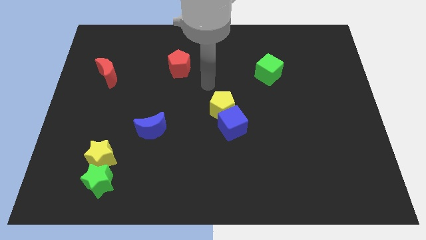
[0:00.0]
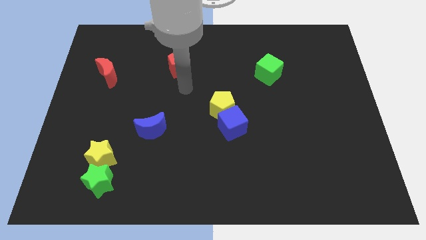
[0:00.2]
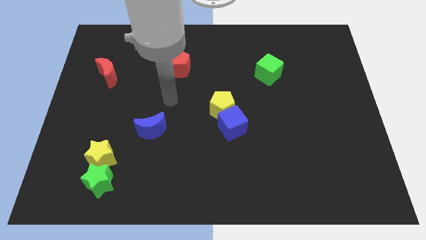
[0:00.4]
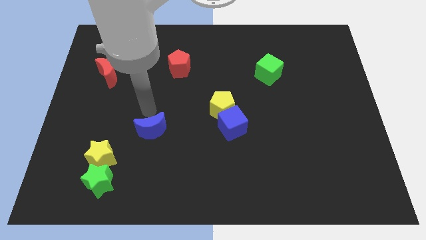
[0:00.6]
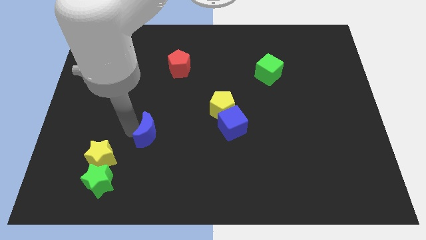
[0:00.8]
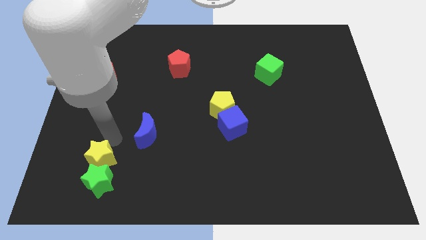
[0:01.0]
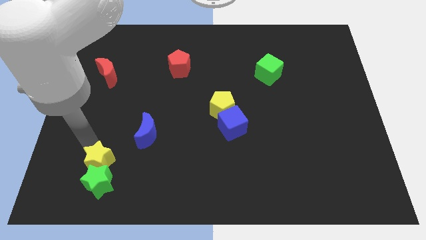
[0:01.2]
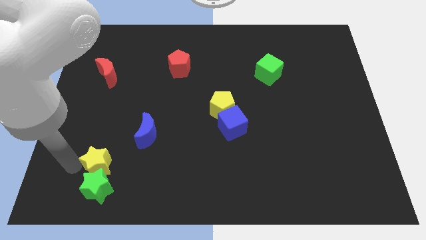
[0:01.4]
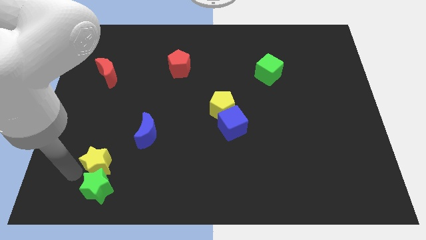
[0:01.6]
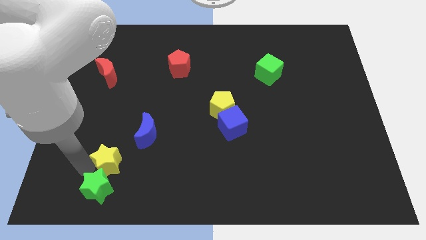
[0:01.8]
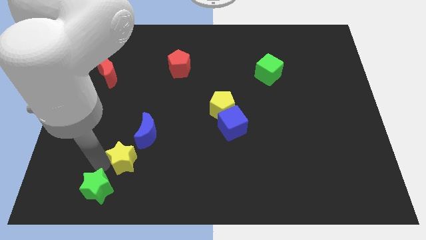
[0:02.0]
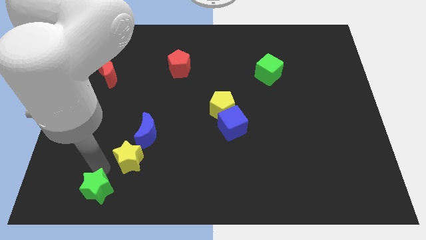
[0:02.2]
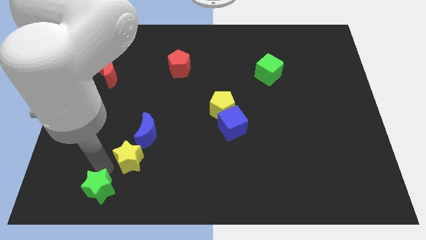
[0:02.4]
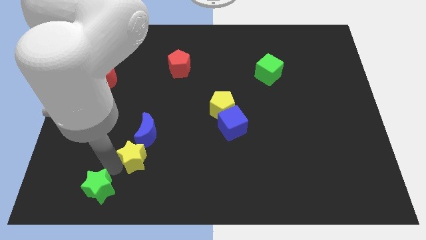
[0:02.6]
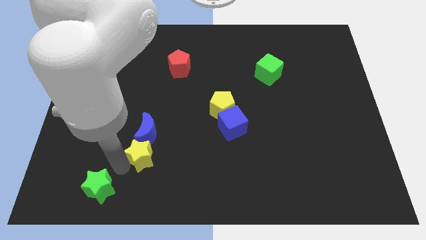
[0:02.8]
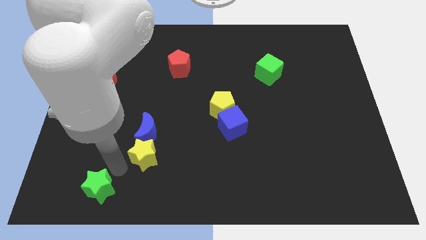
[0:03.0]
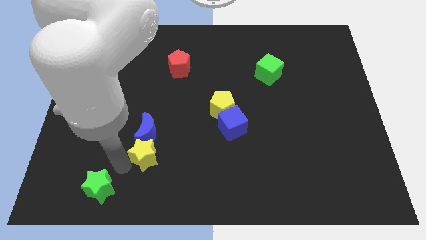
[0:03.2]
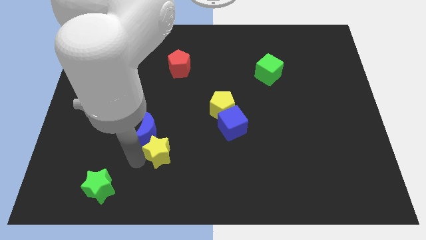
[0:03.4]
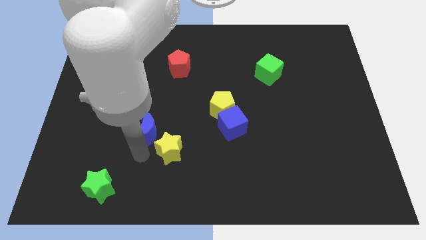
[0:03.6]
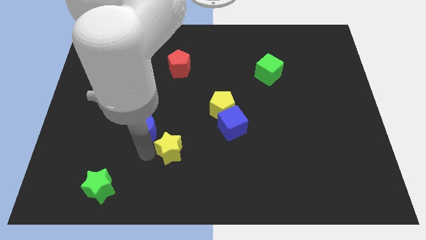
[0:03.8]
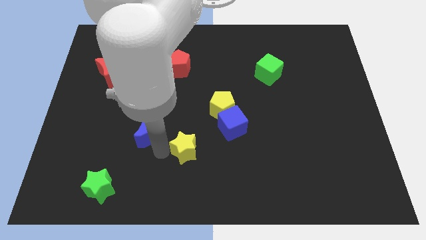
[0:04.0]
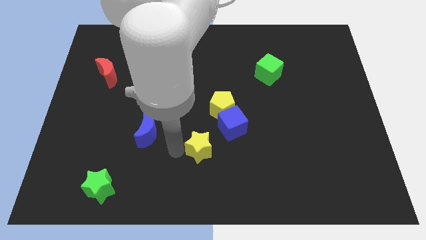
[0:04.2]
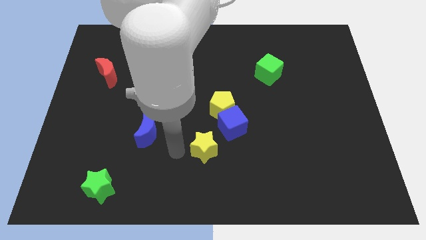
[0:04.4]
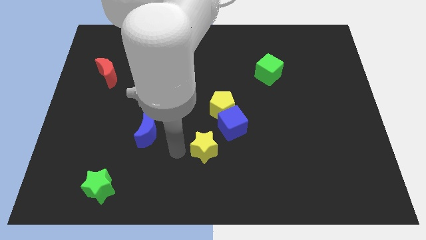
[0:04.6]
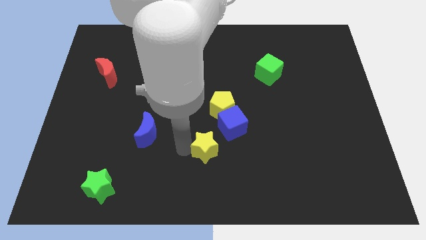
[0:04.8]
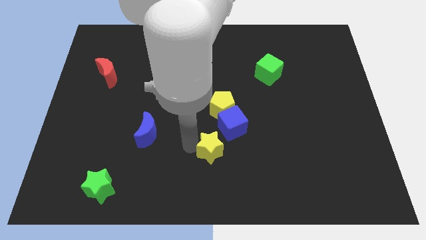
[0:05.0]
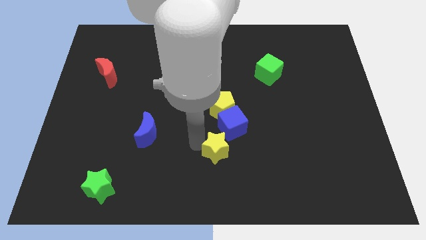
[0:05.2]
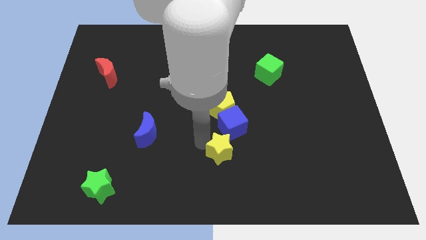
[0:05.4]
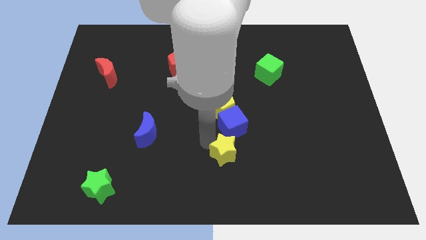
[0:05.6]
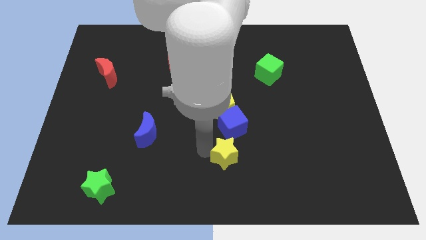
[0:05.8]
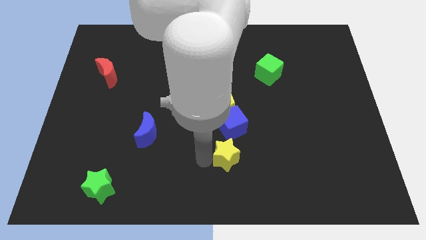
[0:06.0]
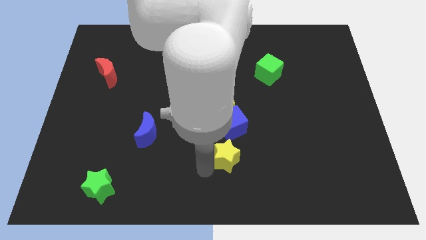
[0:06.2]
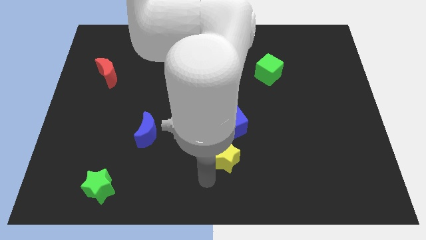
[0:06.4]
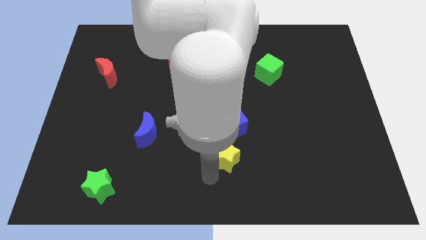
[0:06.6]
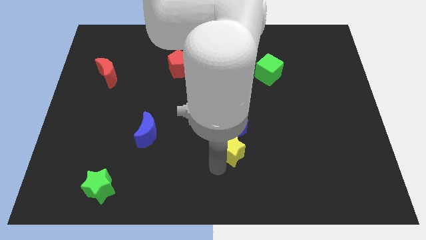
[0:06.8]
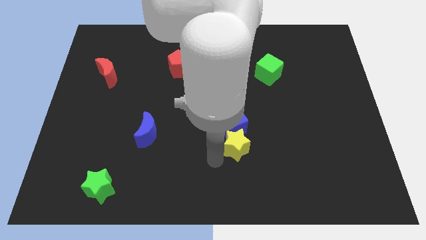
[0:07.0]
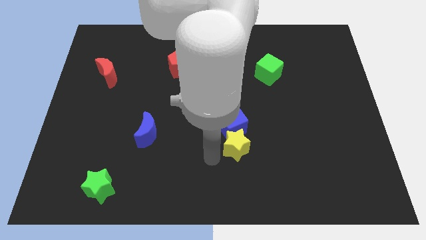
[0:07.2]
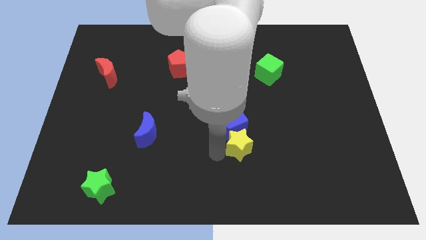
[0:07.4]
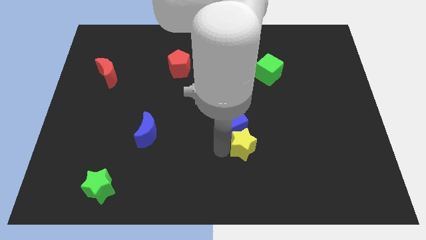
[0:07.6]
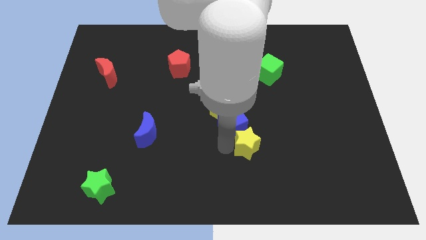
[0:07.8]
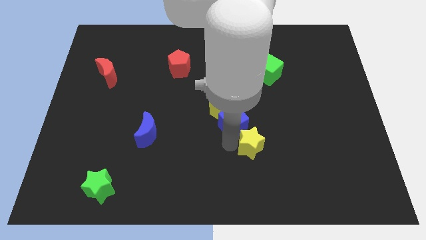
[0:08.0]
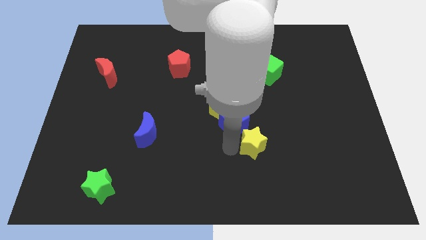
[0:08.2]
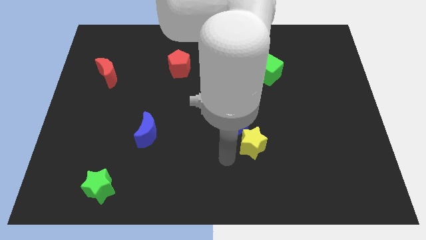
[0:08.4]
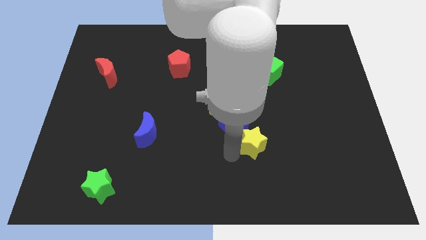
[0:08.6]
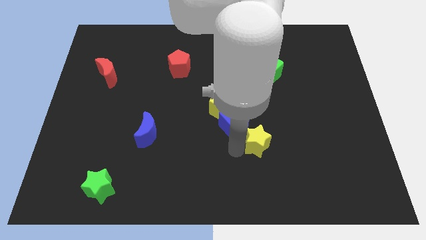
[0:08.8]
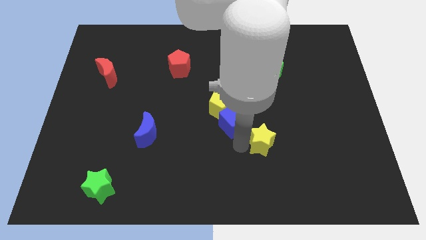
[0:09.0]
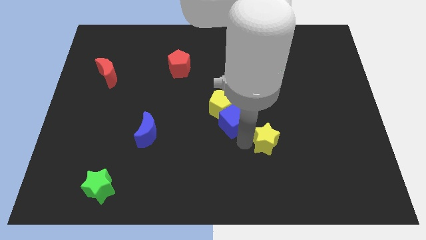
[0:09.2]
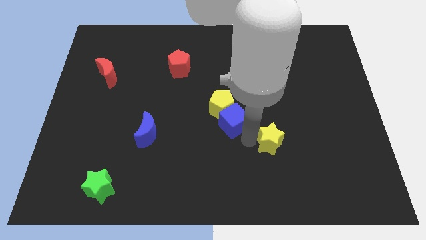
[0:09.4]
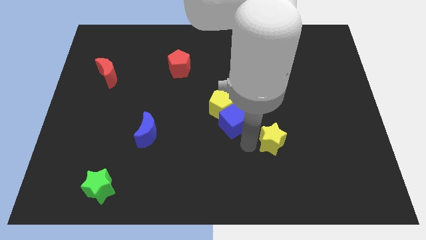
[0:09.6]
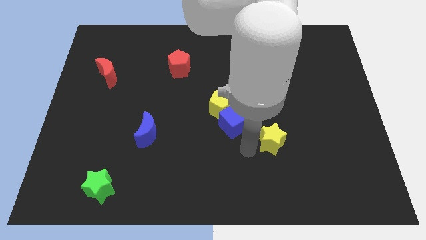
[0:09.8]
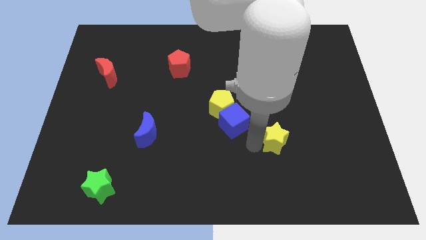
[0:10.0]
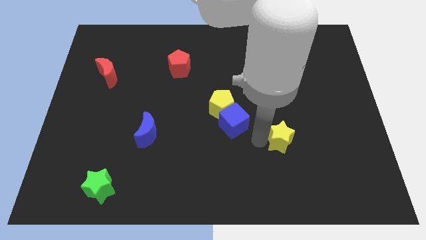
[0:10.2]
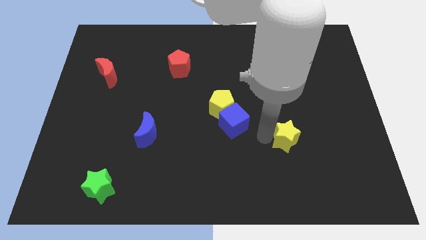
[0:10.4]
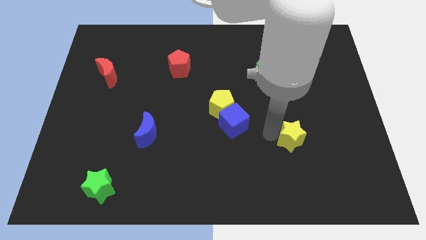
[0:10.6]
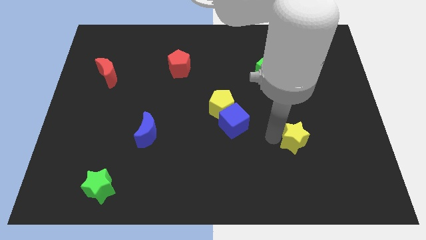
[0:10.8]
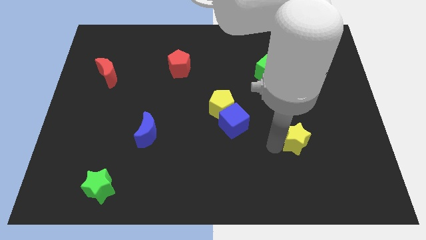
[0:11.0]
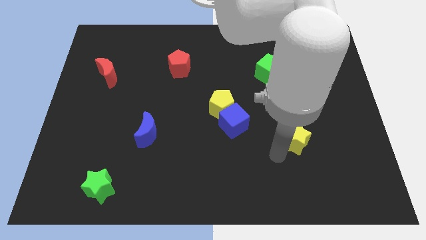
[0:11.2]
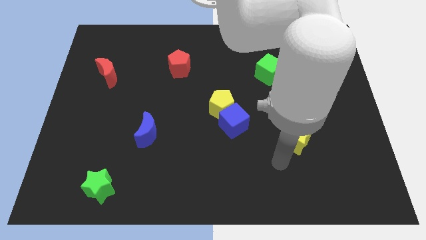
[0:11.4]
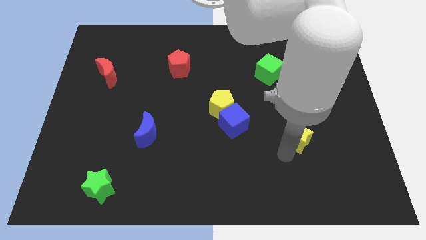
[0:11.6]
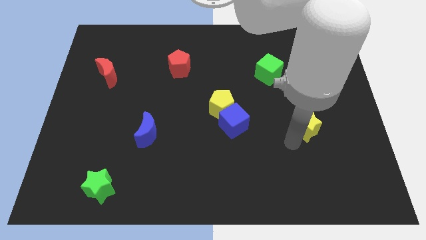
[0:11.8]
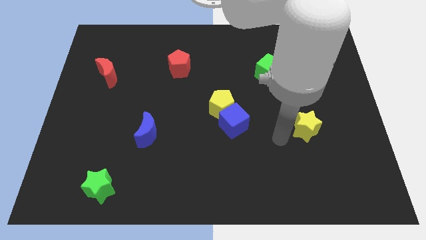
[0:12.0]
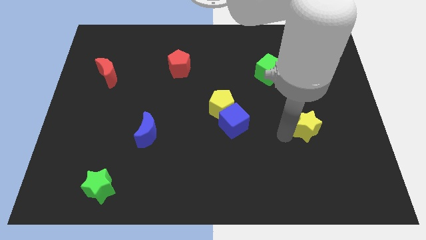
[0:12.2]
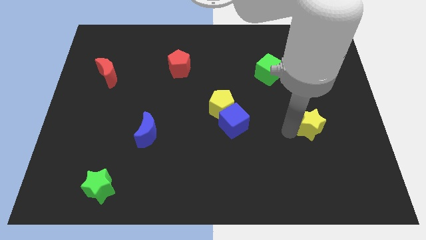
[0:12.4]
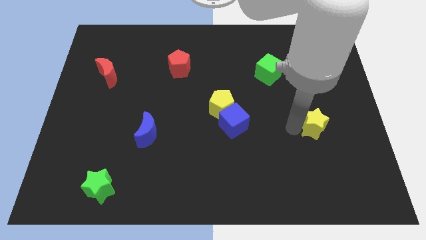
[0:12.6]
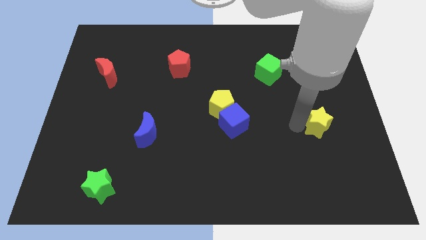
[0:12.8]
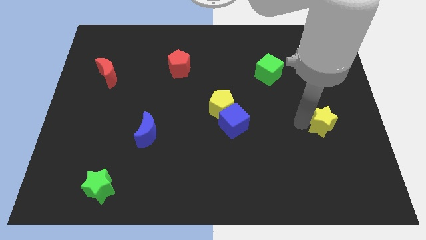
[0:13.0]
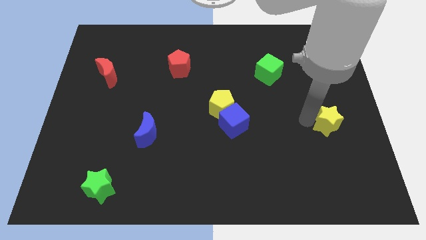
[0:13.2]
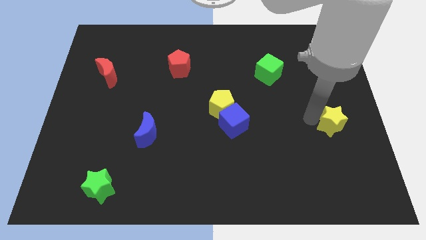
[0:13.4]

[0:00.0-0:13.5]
slide the yellow star to the right side
